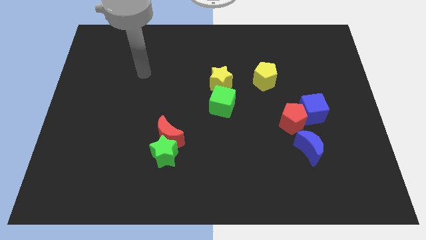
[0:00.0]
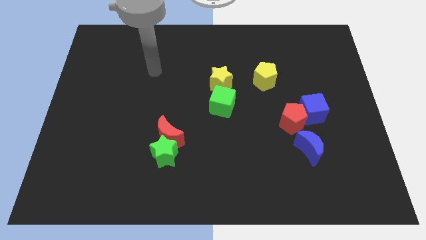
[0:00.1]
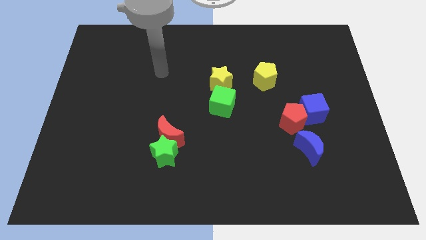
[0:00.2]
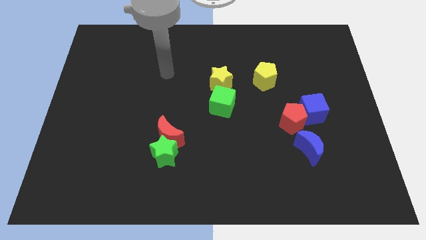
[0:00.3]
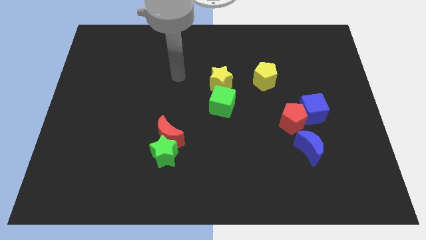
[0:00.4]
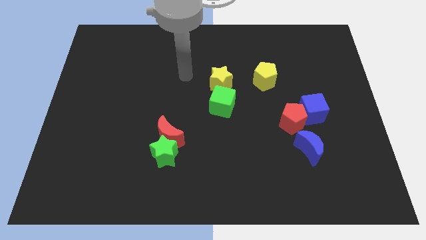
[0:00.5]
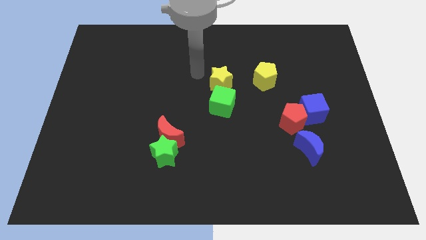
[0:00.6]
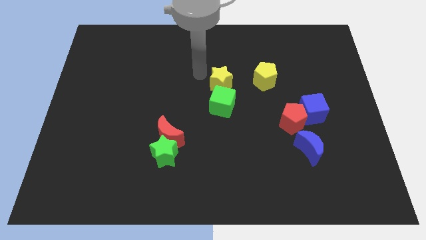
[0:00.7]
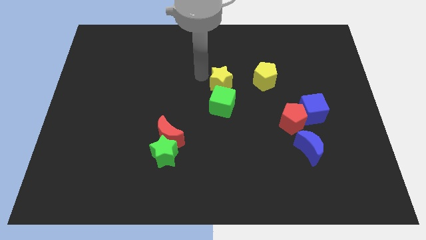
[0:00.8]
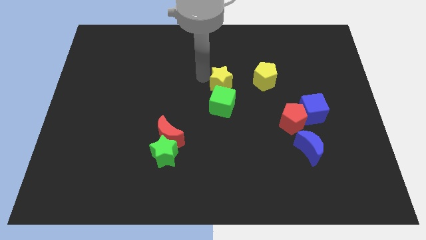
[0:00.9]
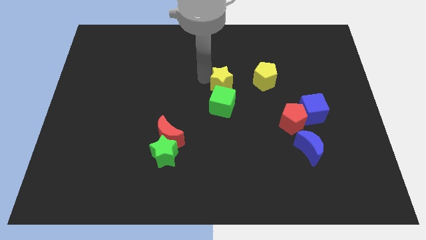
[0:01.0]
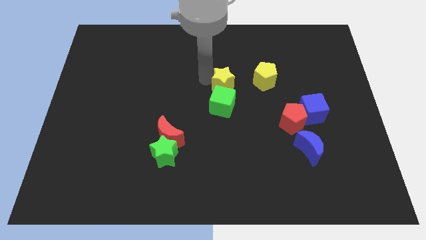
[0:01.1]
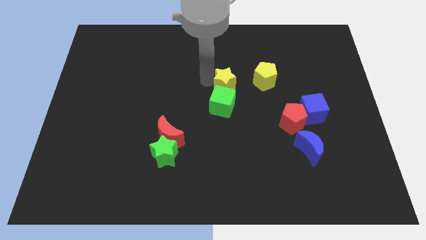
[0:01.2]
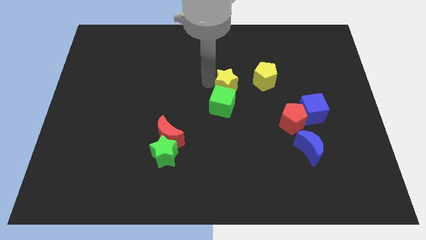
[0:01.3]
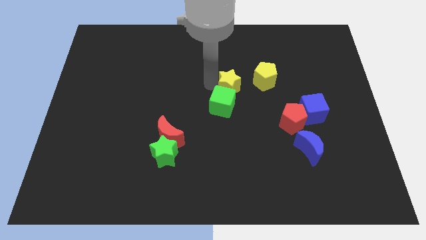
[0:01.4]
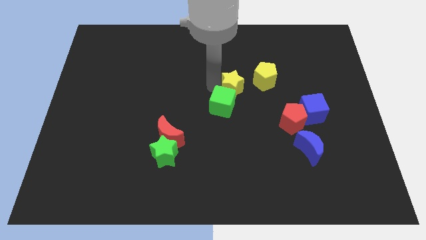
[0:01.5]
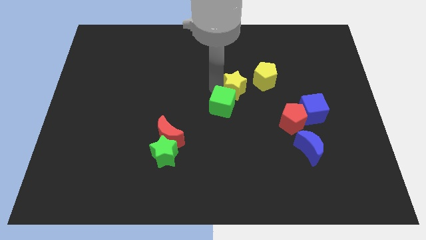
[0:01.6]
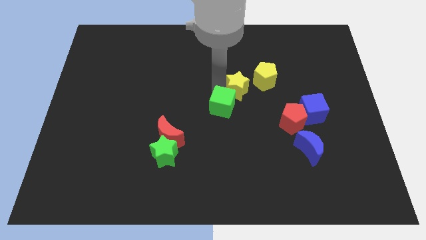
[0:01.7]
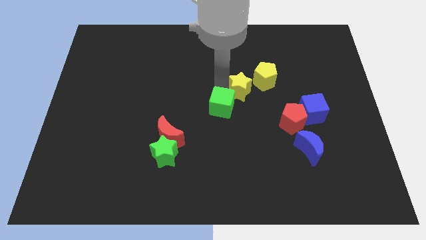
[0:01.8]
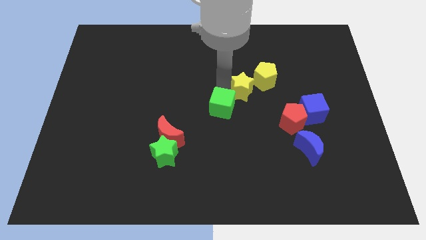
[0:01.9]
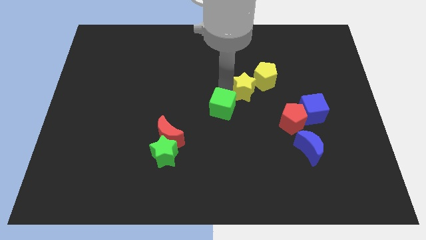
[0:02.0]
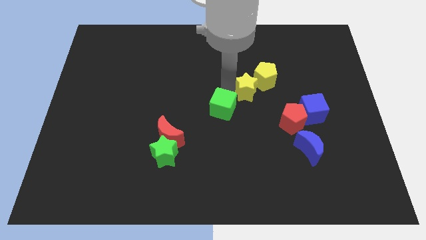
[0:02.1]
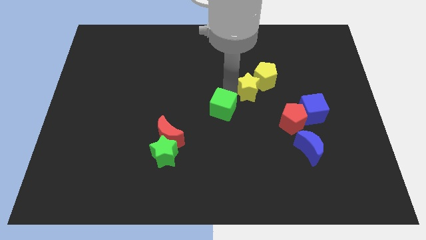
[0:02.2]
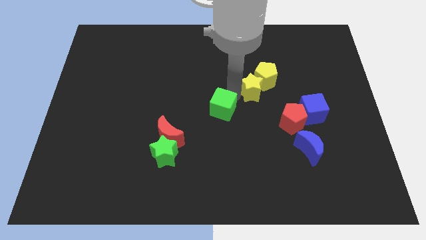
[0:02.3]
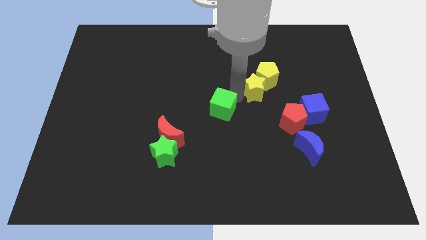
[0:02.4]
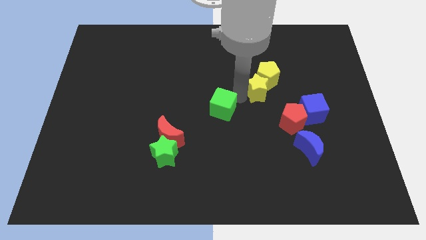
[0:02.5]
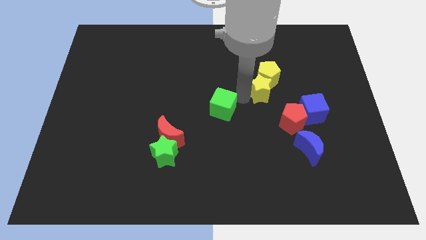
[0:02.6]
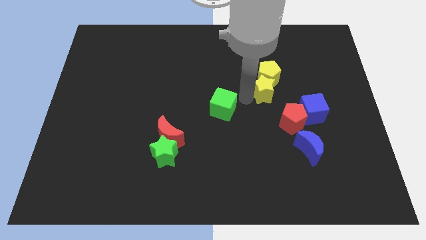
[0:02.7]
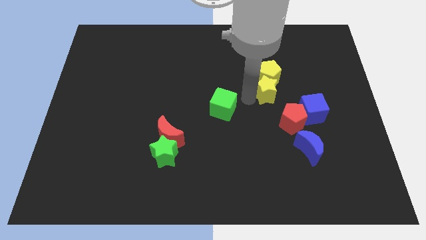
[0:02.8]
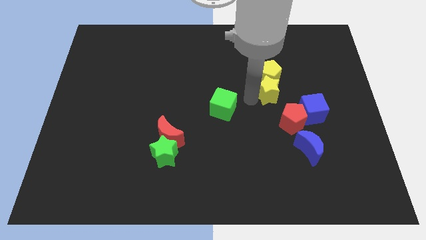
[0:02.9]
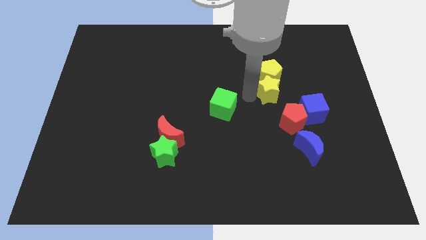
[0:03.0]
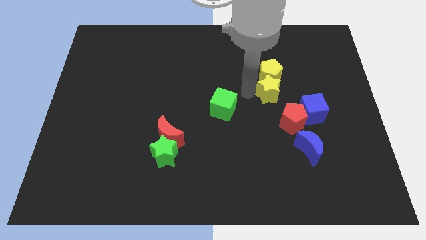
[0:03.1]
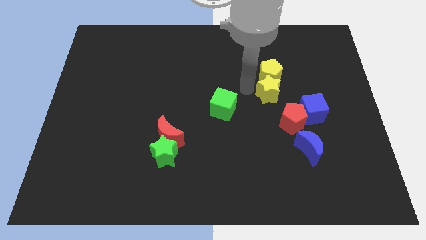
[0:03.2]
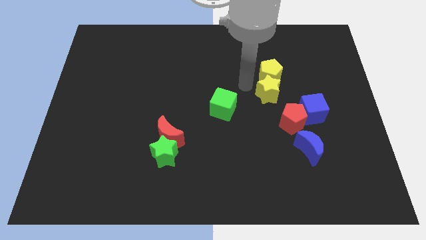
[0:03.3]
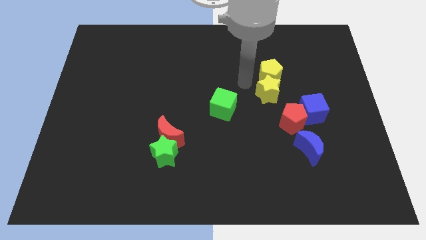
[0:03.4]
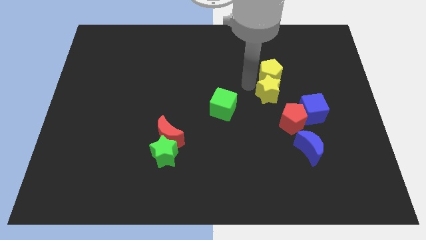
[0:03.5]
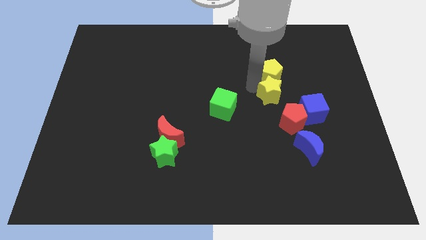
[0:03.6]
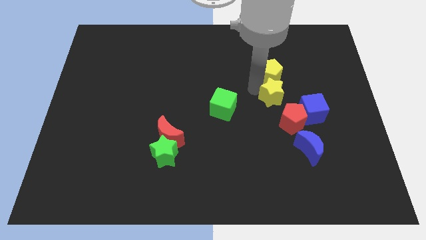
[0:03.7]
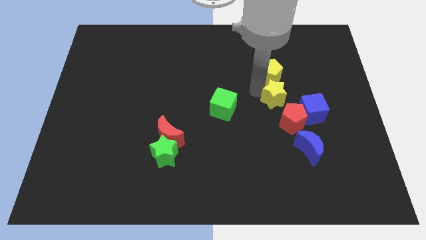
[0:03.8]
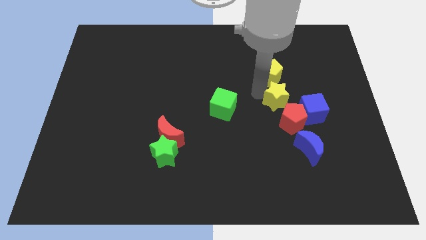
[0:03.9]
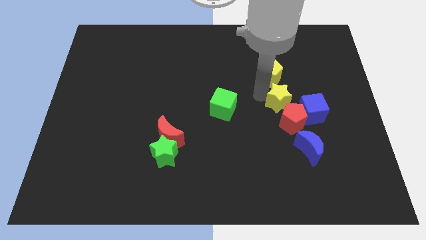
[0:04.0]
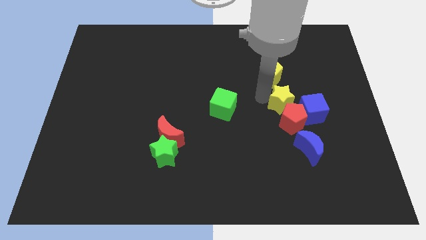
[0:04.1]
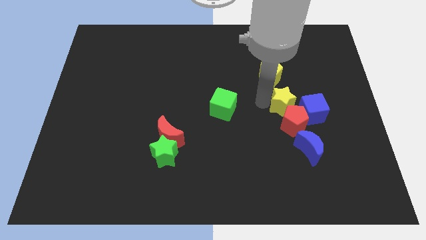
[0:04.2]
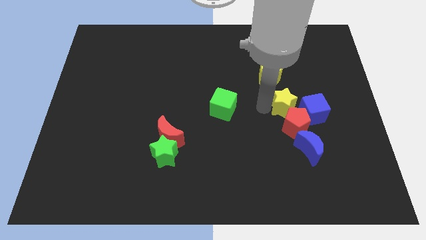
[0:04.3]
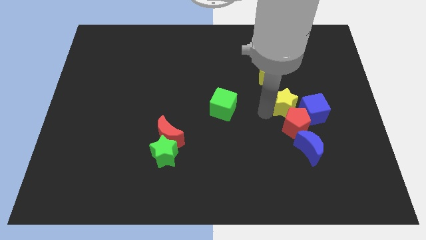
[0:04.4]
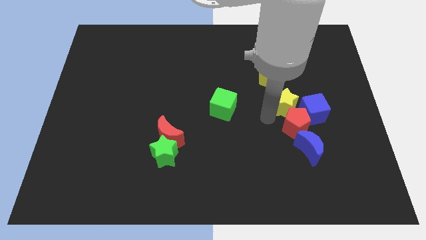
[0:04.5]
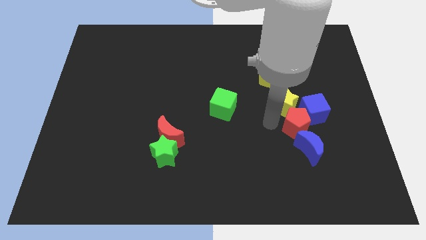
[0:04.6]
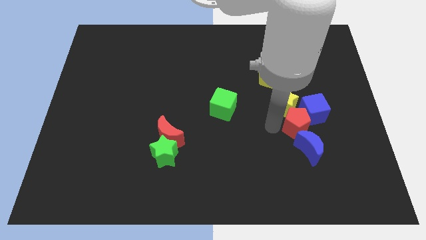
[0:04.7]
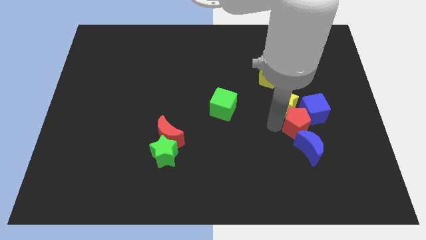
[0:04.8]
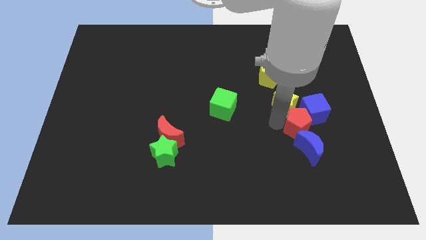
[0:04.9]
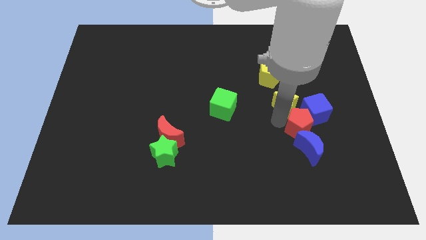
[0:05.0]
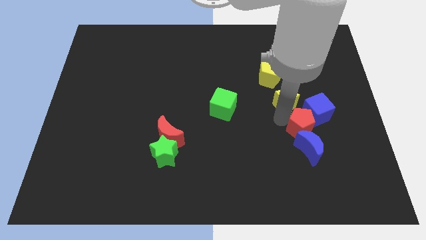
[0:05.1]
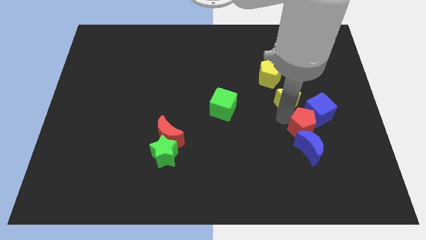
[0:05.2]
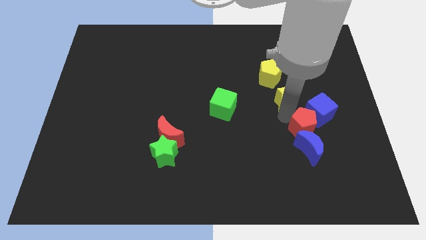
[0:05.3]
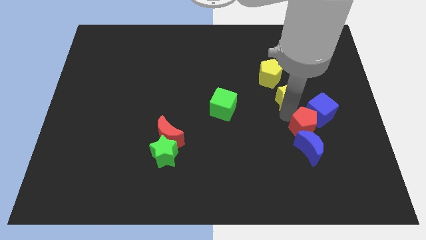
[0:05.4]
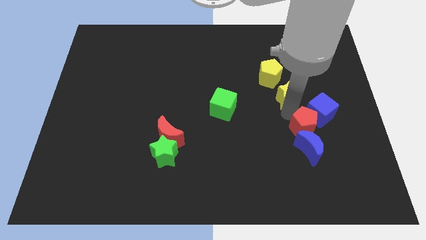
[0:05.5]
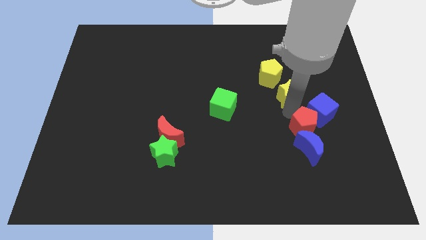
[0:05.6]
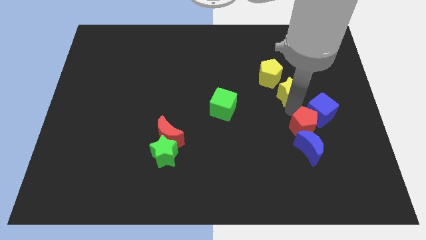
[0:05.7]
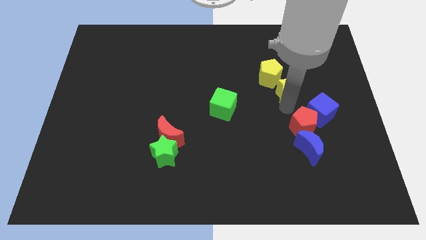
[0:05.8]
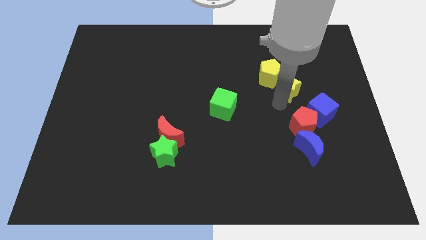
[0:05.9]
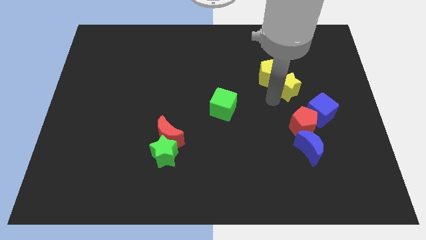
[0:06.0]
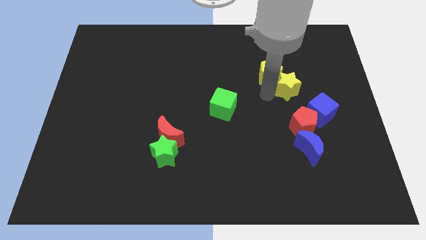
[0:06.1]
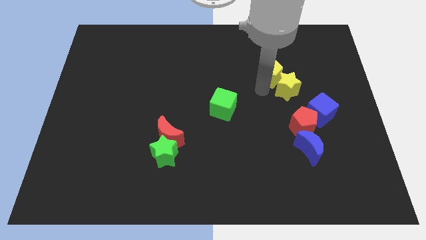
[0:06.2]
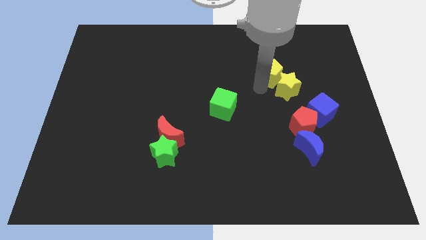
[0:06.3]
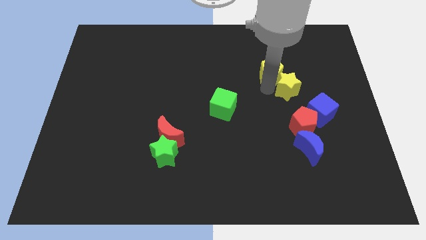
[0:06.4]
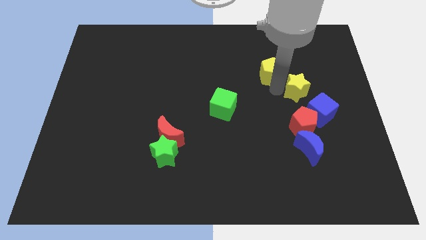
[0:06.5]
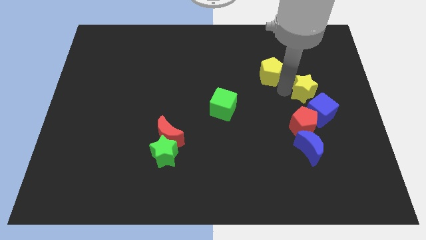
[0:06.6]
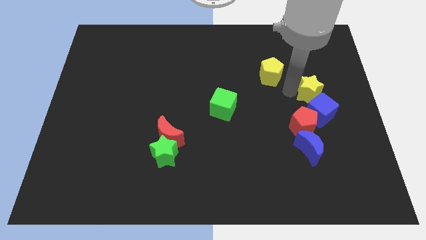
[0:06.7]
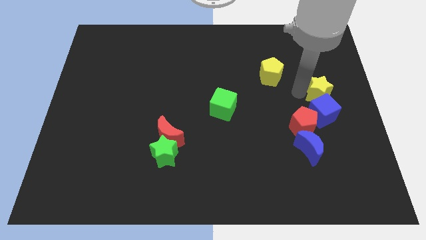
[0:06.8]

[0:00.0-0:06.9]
put the yellow star to the right side
